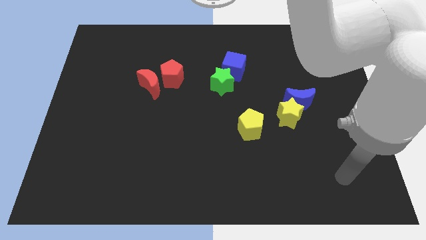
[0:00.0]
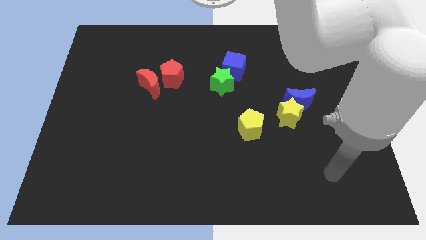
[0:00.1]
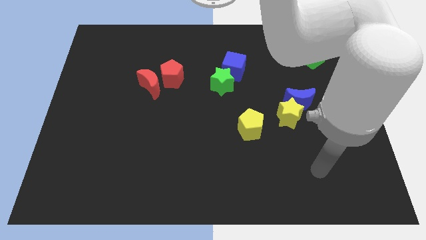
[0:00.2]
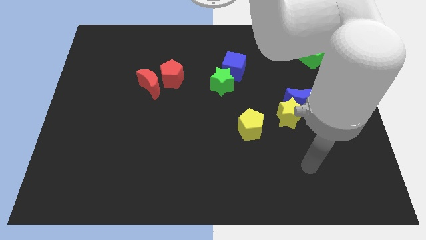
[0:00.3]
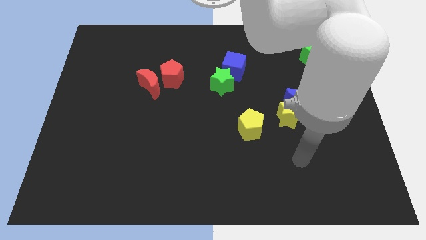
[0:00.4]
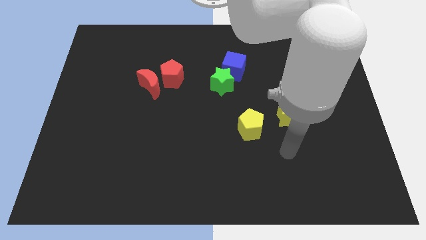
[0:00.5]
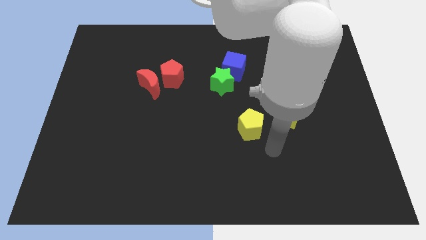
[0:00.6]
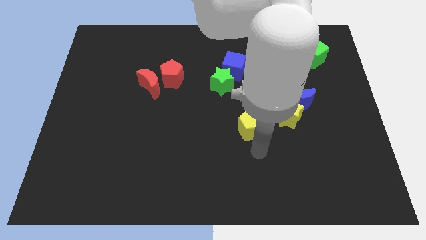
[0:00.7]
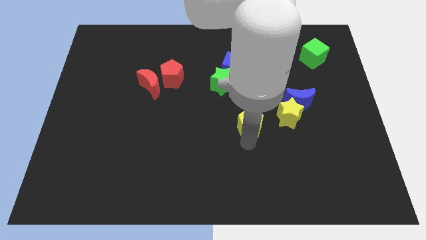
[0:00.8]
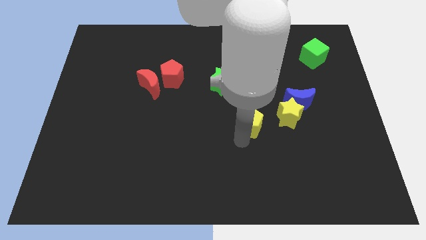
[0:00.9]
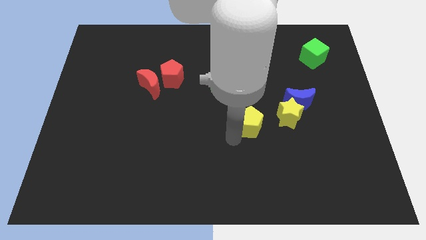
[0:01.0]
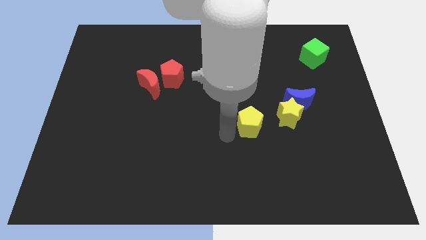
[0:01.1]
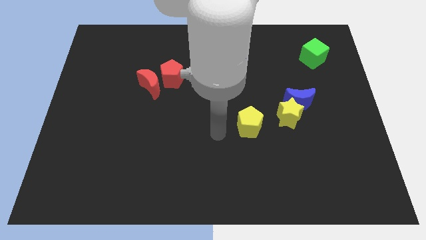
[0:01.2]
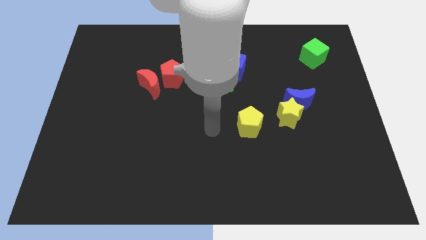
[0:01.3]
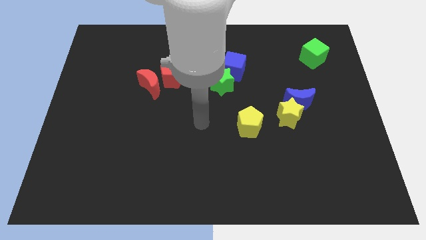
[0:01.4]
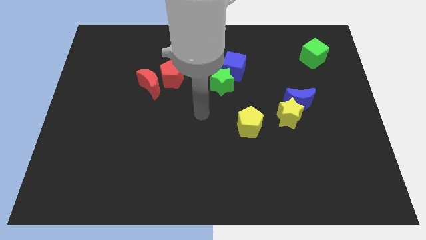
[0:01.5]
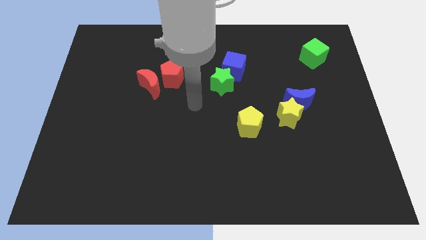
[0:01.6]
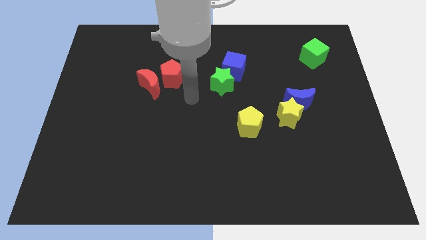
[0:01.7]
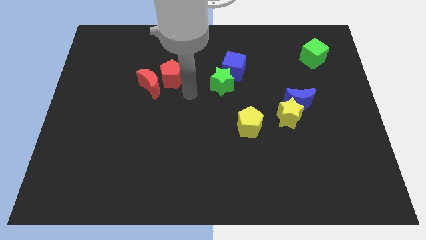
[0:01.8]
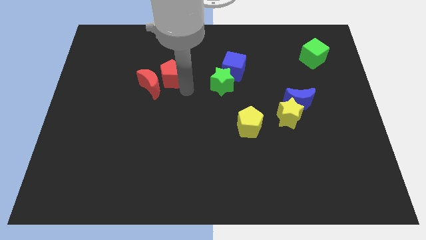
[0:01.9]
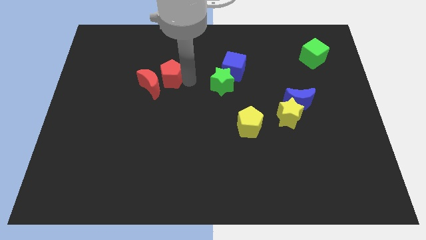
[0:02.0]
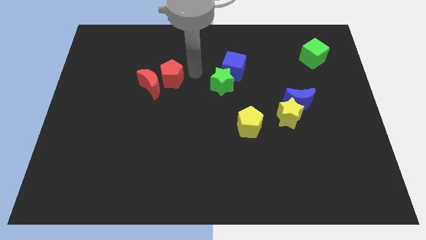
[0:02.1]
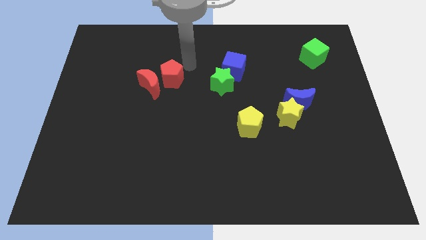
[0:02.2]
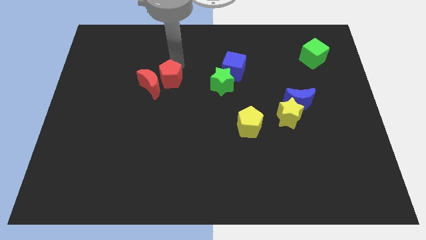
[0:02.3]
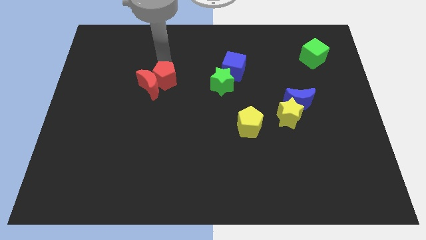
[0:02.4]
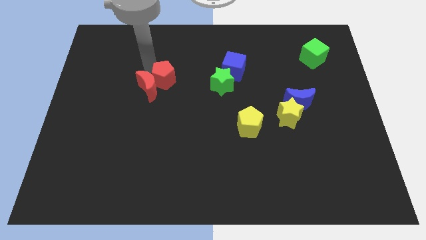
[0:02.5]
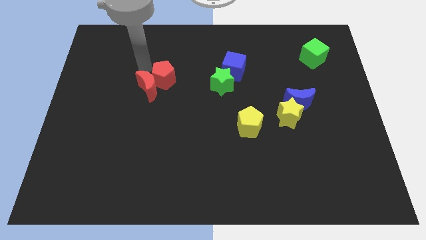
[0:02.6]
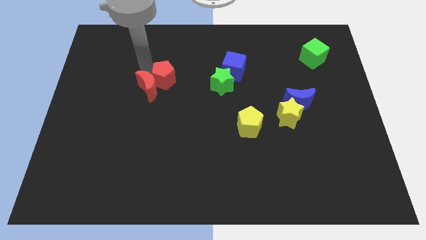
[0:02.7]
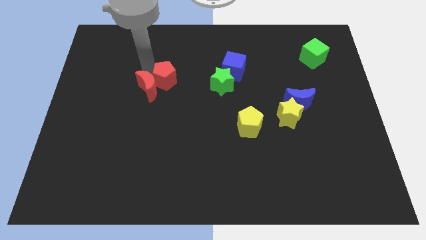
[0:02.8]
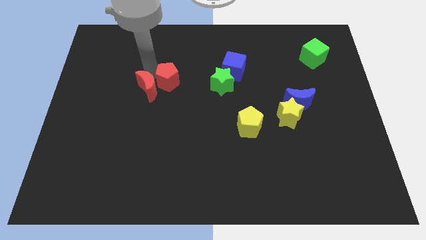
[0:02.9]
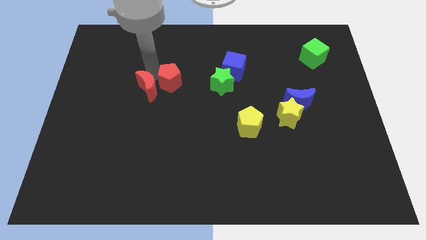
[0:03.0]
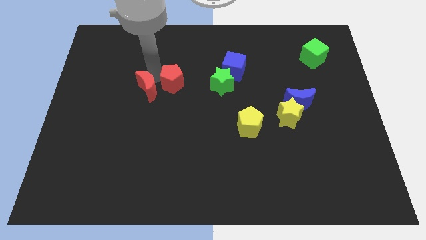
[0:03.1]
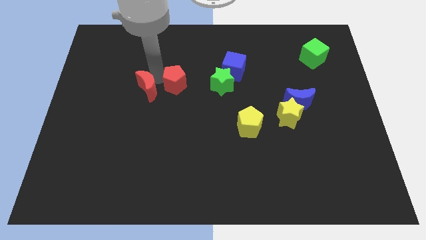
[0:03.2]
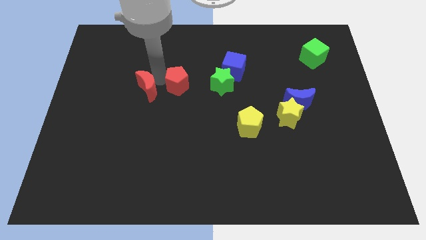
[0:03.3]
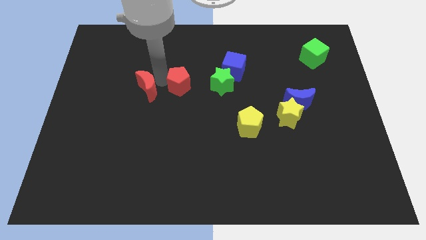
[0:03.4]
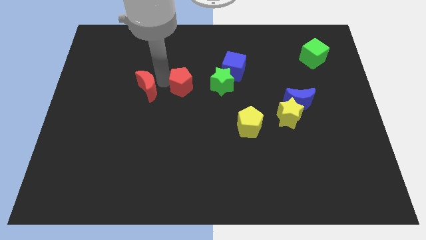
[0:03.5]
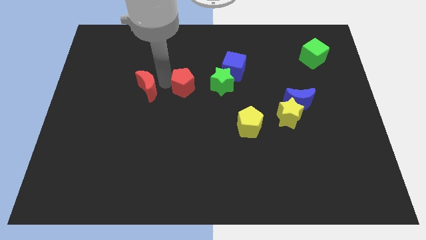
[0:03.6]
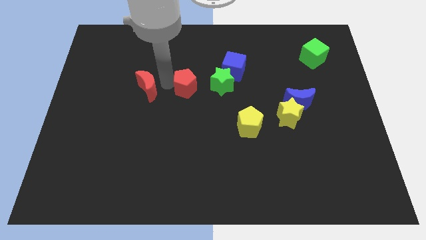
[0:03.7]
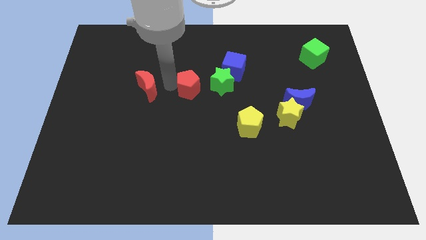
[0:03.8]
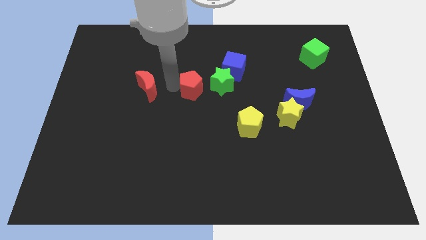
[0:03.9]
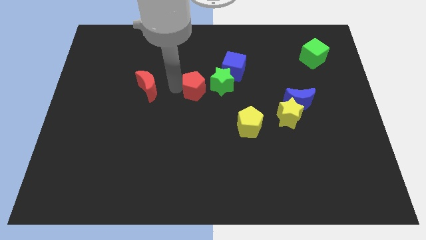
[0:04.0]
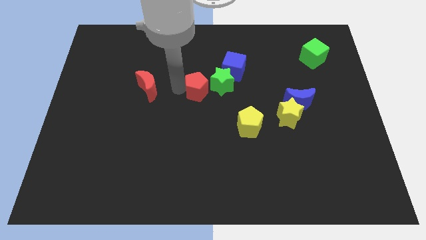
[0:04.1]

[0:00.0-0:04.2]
push the red pentagon down and then right slightly

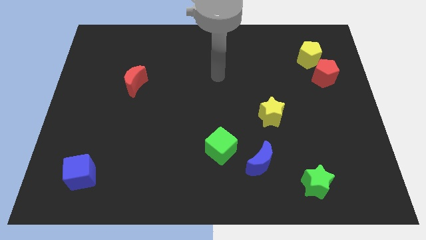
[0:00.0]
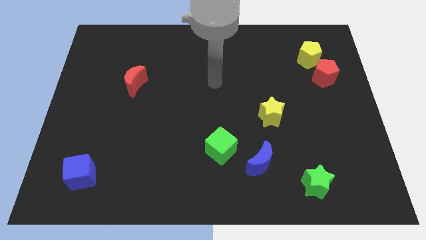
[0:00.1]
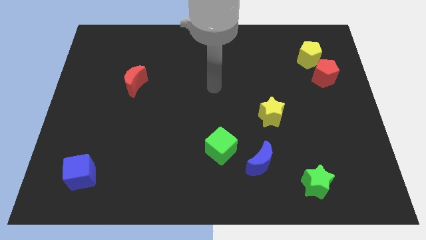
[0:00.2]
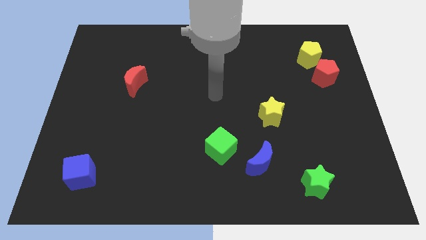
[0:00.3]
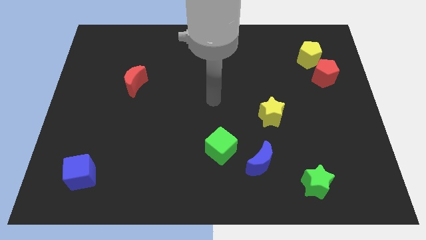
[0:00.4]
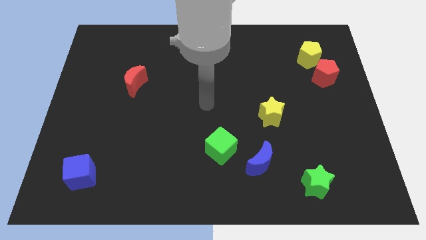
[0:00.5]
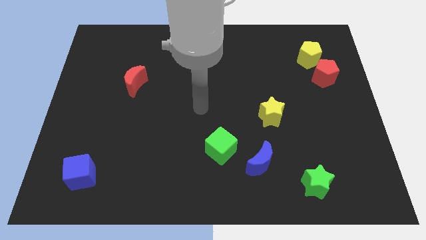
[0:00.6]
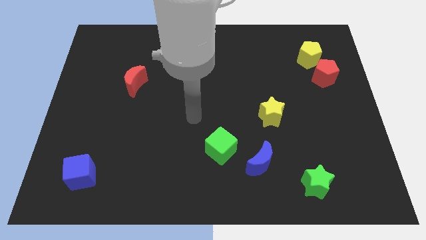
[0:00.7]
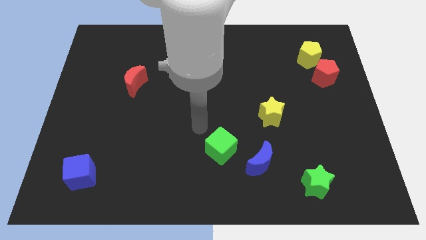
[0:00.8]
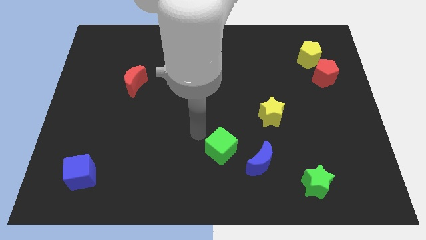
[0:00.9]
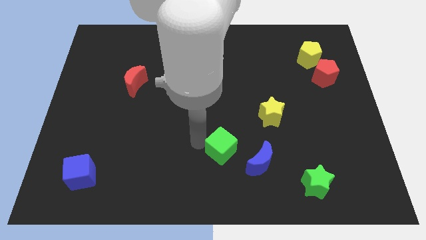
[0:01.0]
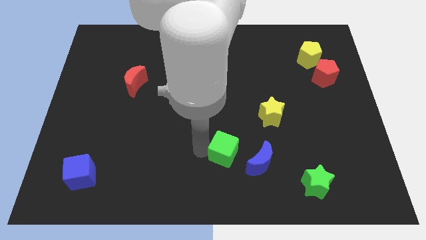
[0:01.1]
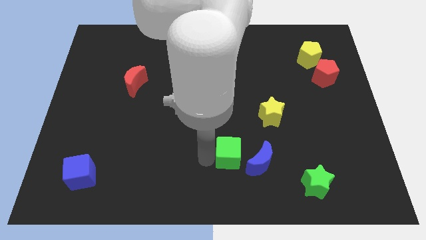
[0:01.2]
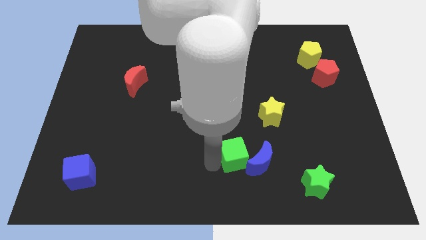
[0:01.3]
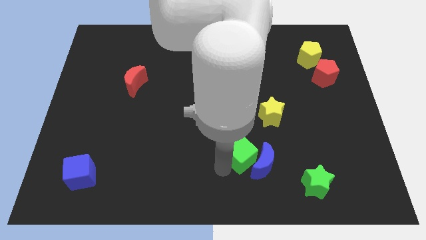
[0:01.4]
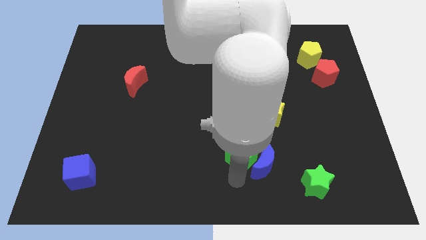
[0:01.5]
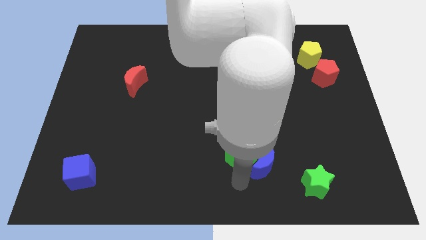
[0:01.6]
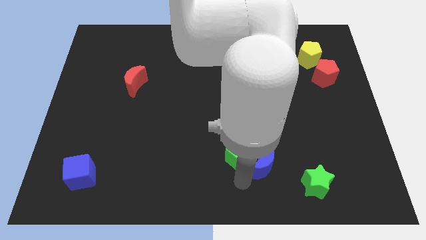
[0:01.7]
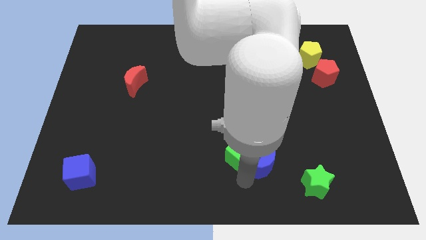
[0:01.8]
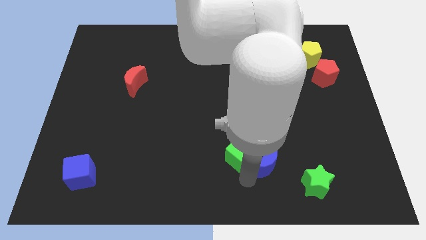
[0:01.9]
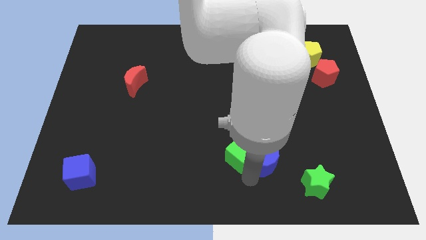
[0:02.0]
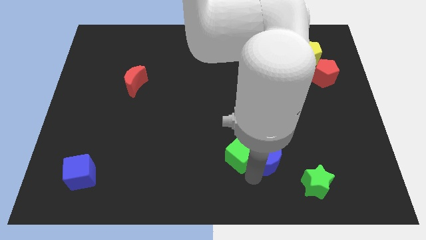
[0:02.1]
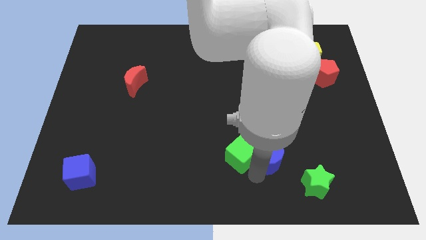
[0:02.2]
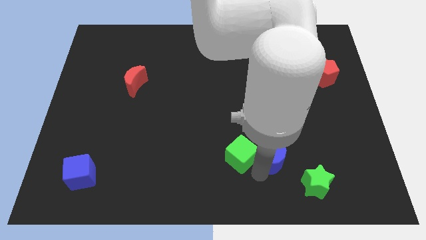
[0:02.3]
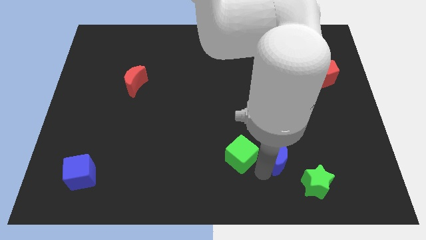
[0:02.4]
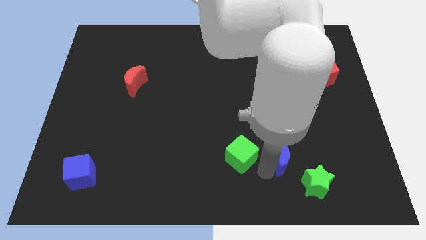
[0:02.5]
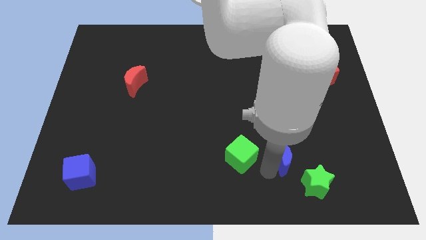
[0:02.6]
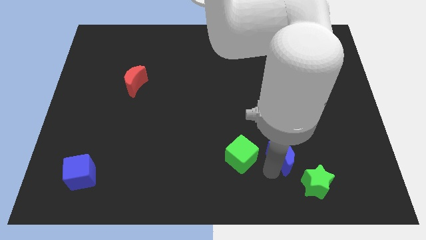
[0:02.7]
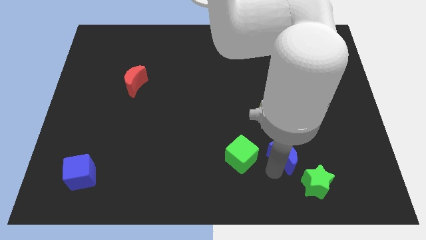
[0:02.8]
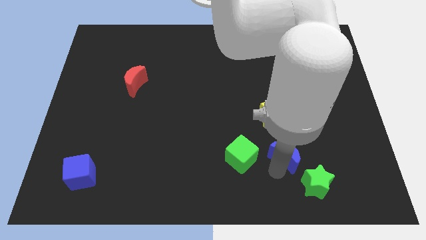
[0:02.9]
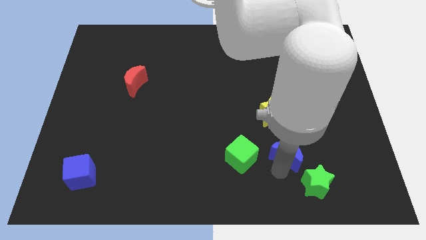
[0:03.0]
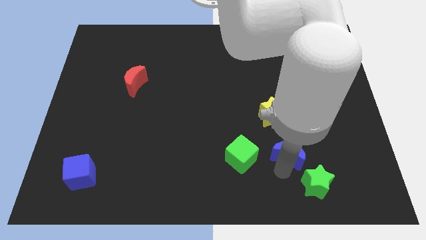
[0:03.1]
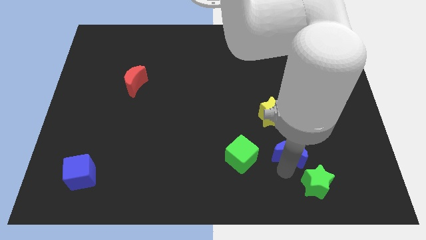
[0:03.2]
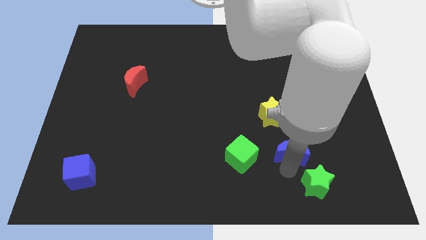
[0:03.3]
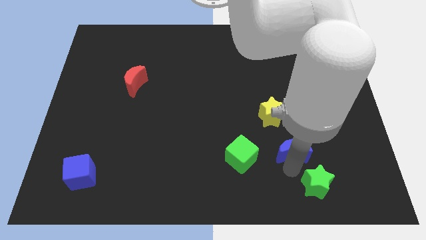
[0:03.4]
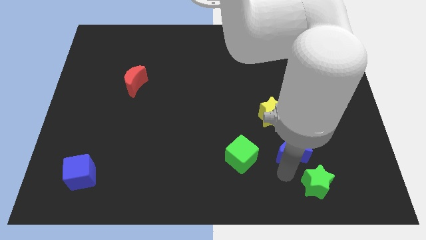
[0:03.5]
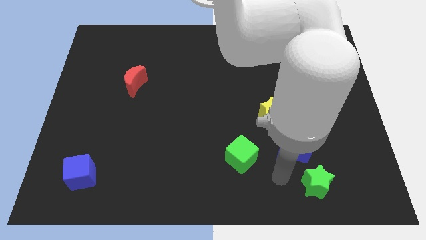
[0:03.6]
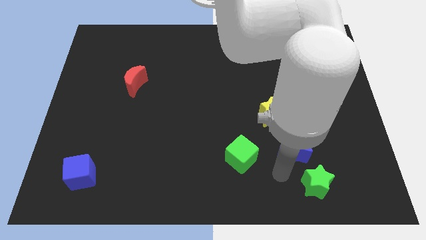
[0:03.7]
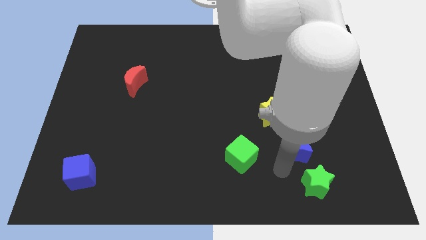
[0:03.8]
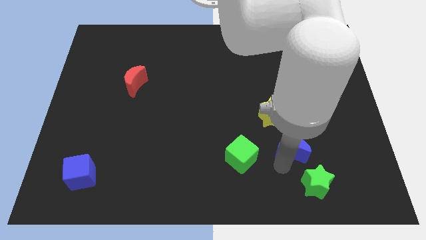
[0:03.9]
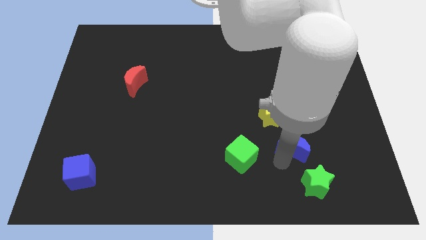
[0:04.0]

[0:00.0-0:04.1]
push the blue moon upwards and right a bit
